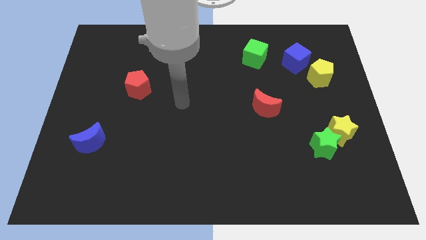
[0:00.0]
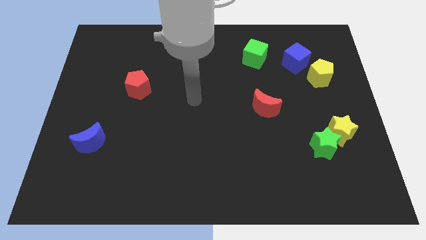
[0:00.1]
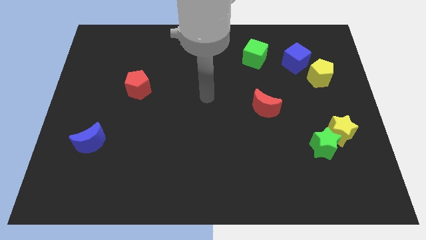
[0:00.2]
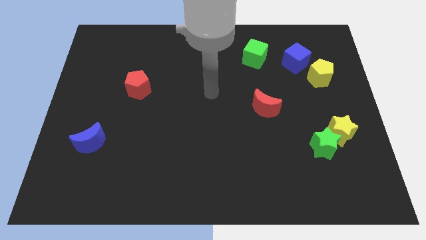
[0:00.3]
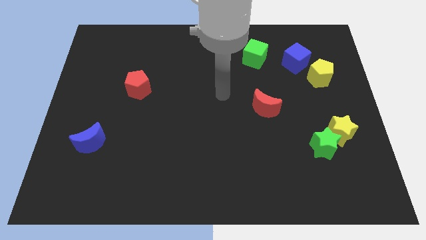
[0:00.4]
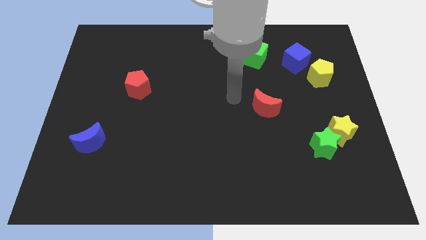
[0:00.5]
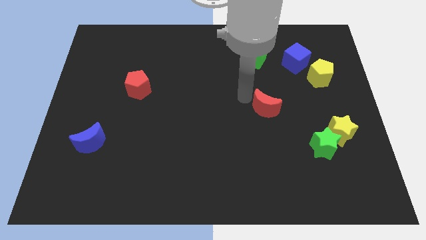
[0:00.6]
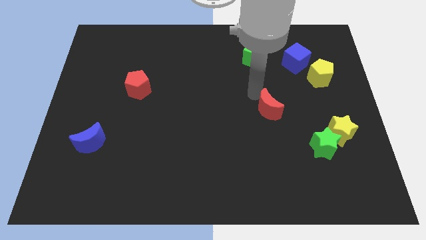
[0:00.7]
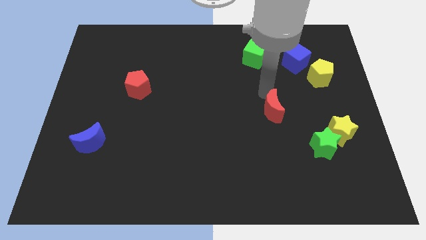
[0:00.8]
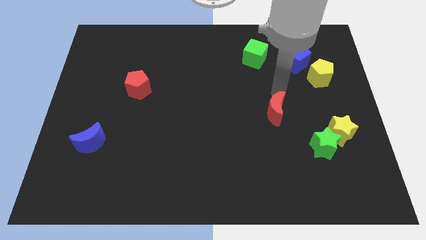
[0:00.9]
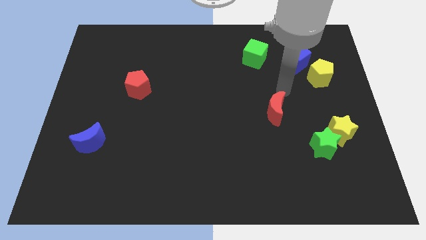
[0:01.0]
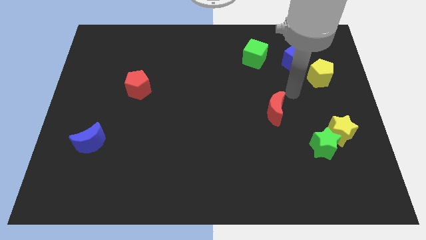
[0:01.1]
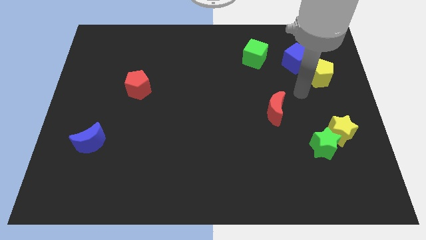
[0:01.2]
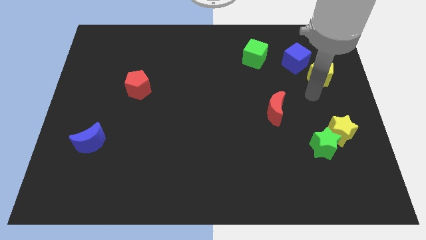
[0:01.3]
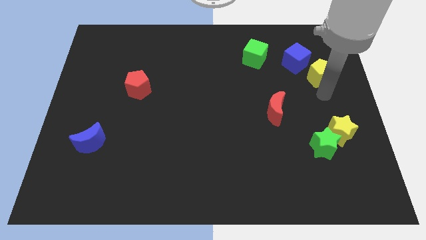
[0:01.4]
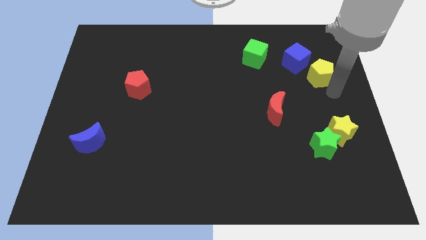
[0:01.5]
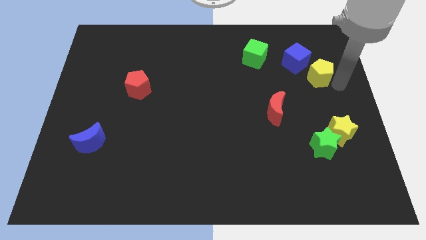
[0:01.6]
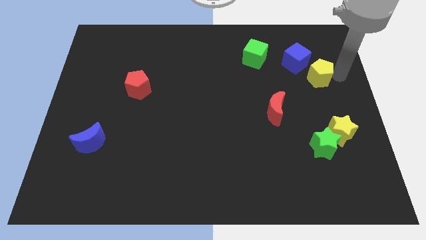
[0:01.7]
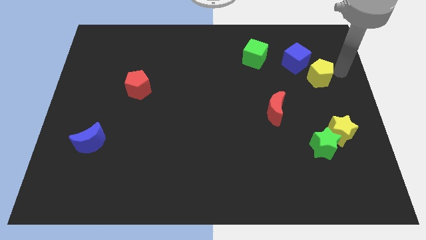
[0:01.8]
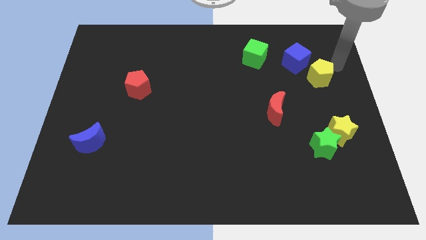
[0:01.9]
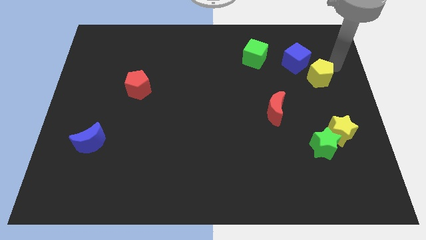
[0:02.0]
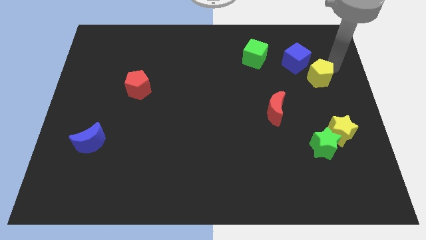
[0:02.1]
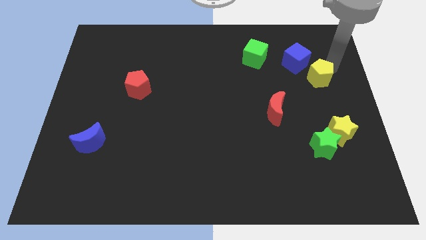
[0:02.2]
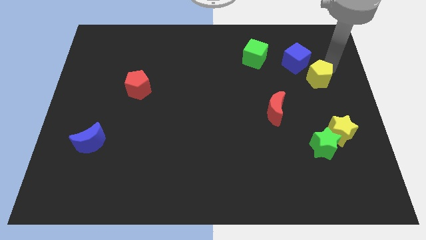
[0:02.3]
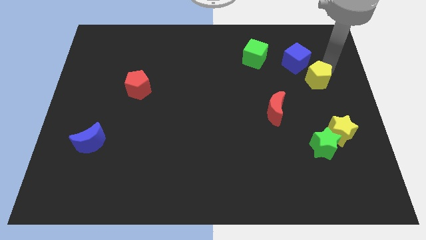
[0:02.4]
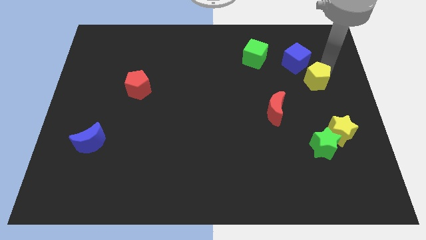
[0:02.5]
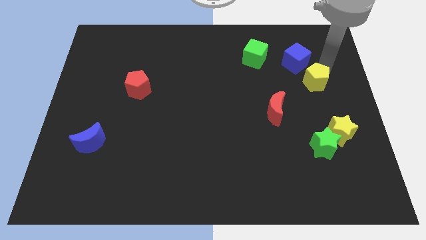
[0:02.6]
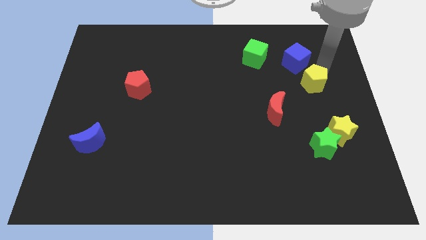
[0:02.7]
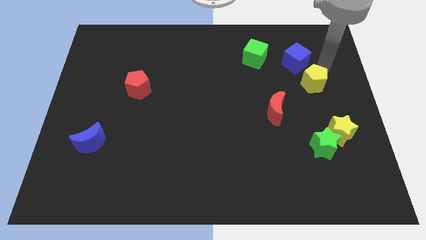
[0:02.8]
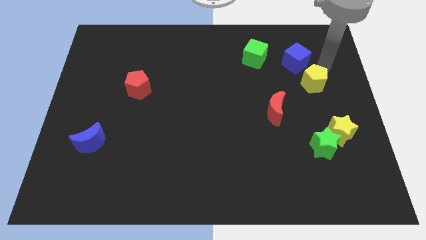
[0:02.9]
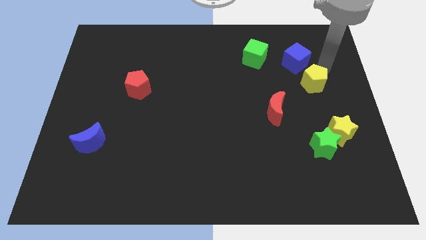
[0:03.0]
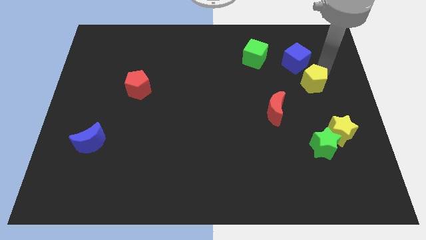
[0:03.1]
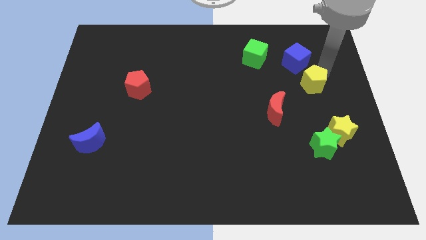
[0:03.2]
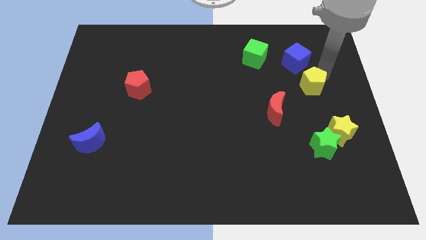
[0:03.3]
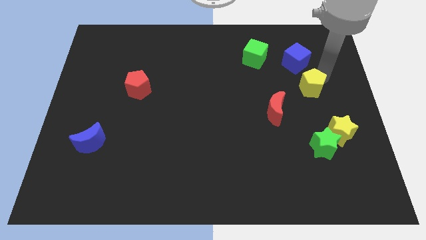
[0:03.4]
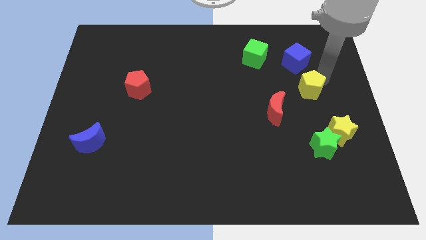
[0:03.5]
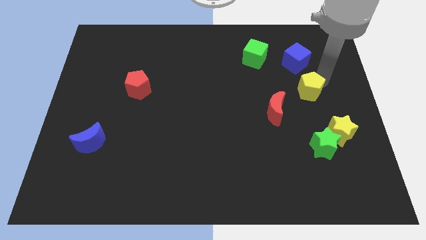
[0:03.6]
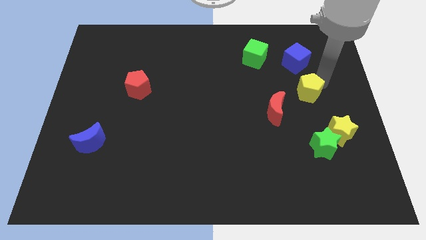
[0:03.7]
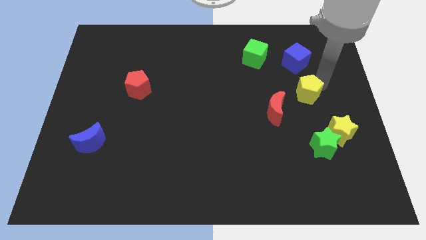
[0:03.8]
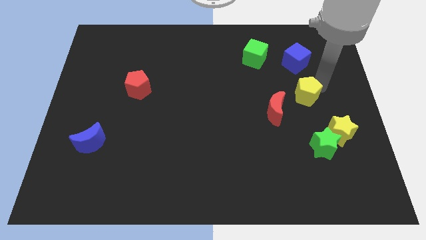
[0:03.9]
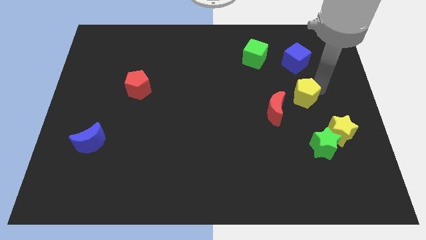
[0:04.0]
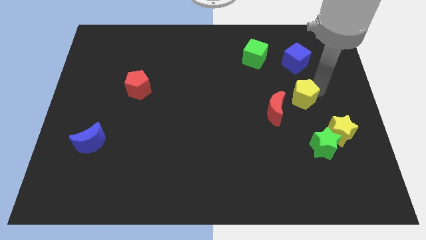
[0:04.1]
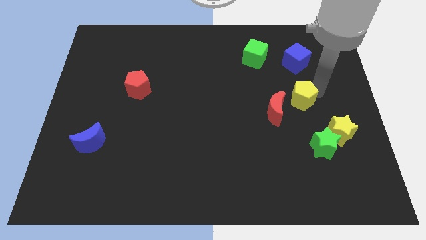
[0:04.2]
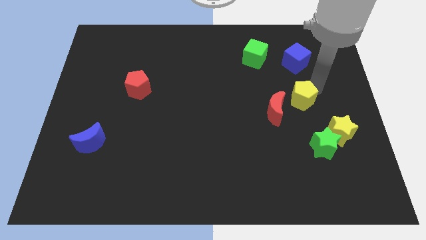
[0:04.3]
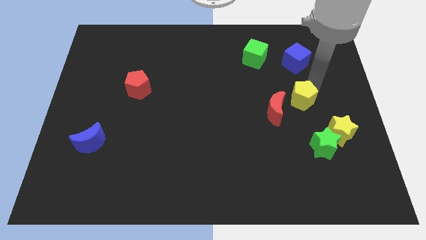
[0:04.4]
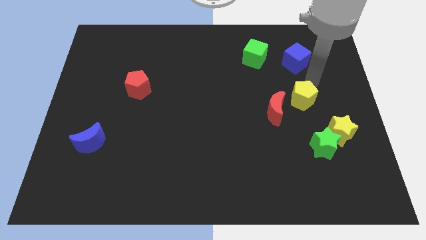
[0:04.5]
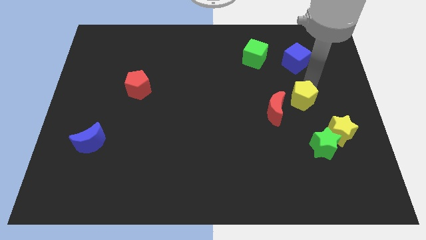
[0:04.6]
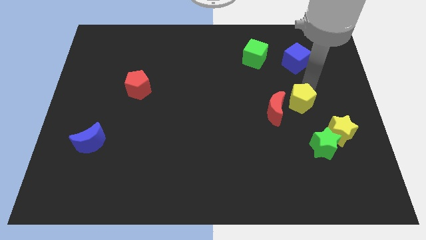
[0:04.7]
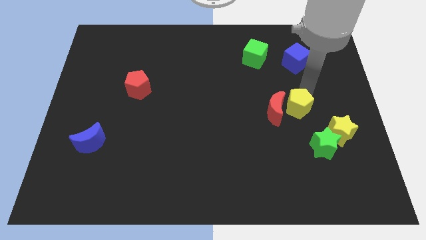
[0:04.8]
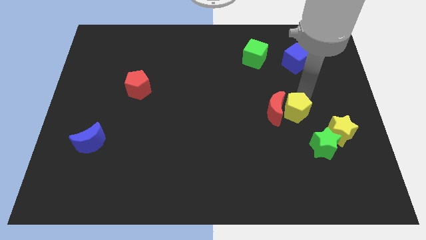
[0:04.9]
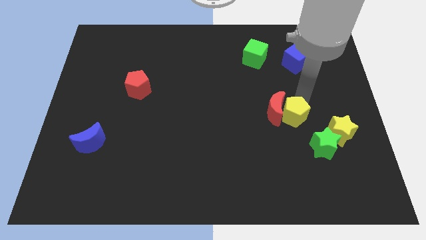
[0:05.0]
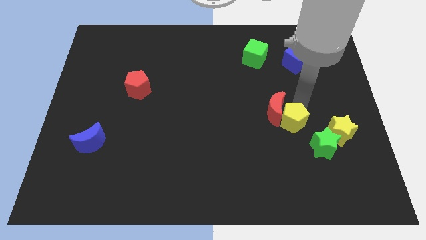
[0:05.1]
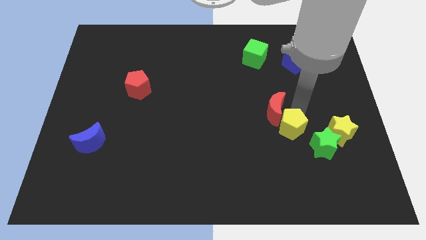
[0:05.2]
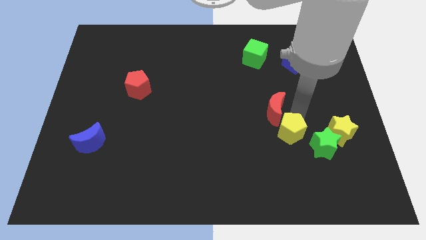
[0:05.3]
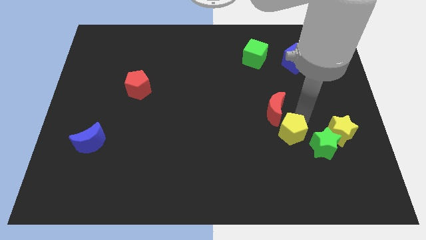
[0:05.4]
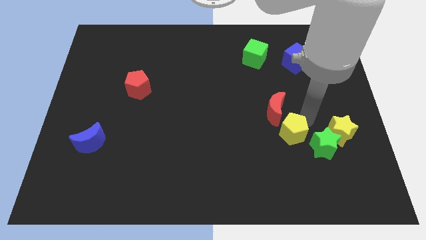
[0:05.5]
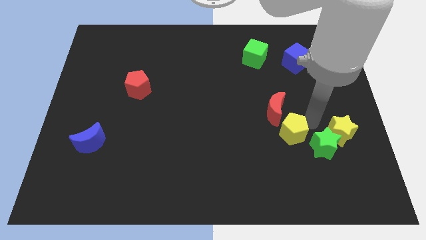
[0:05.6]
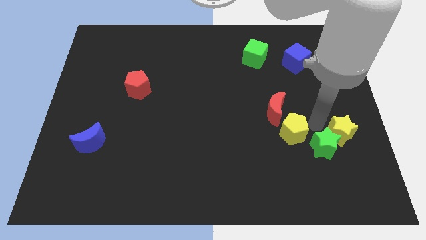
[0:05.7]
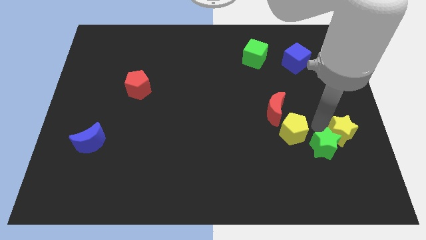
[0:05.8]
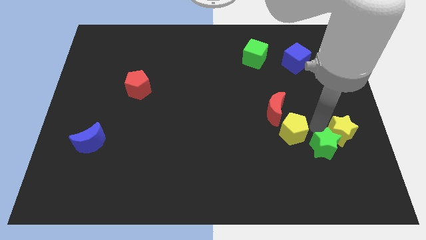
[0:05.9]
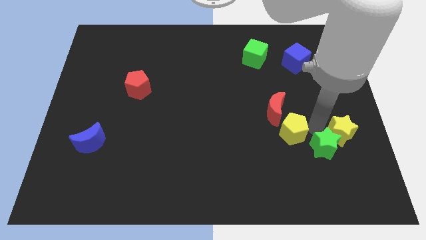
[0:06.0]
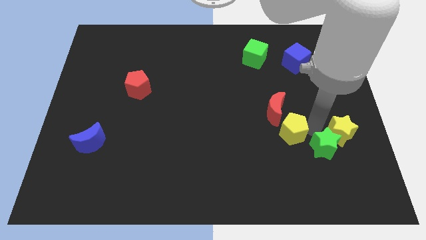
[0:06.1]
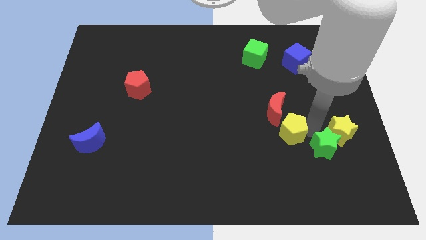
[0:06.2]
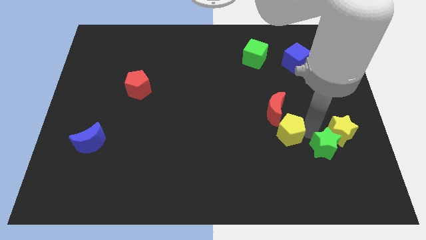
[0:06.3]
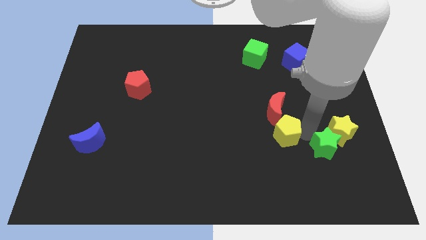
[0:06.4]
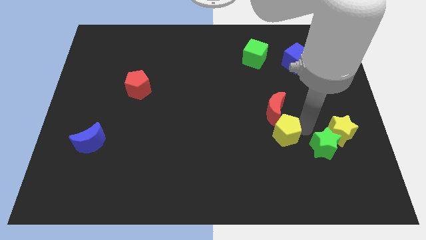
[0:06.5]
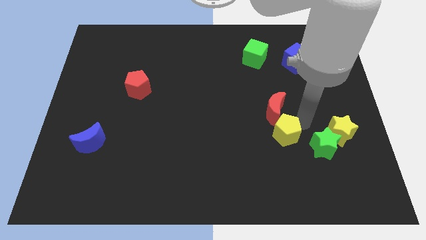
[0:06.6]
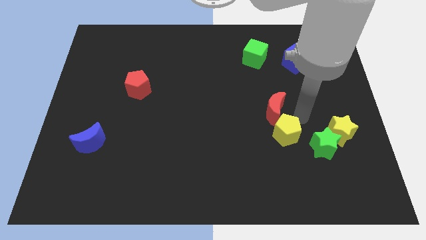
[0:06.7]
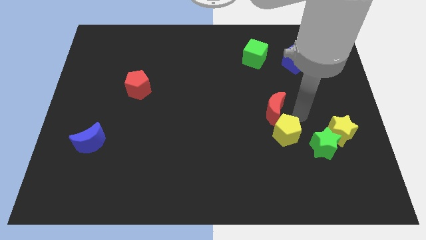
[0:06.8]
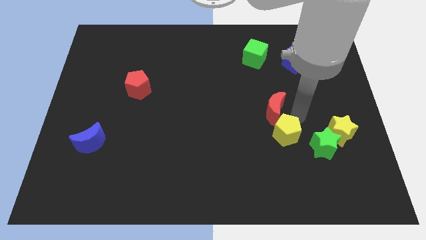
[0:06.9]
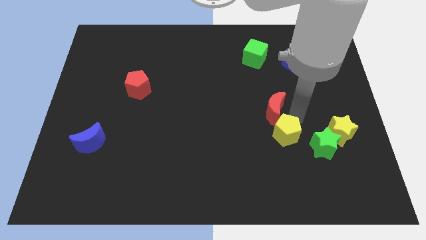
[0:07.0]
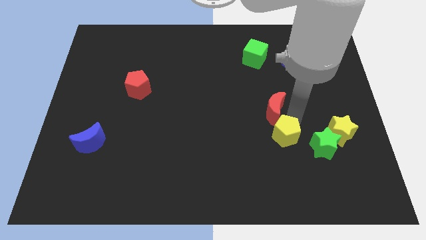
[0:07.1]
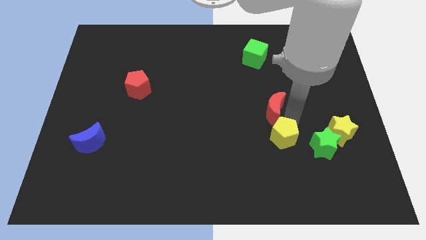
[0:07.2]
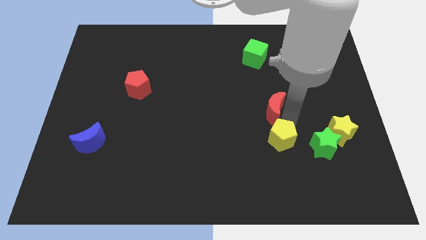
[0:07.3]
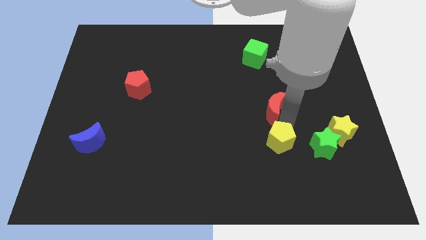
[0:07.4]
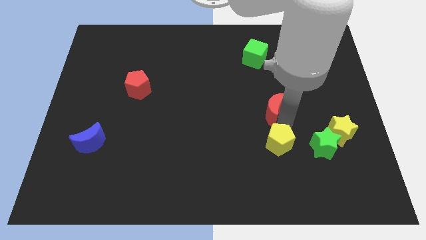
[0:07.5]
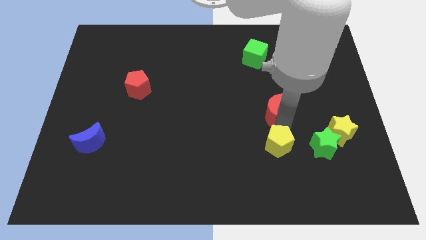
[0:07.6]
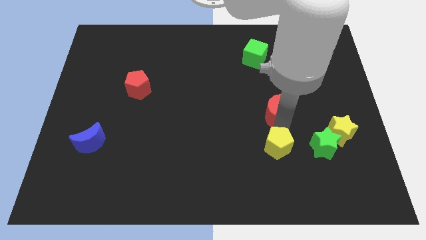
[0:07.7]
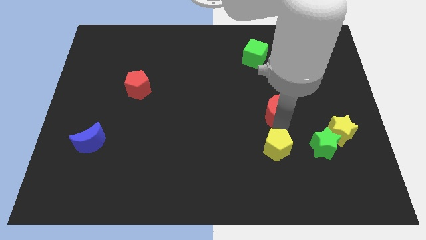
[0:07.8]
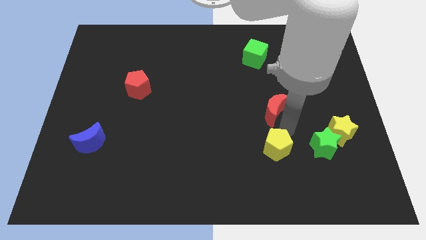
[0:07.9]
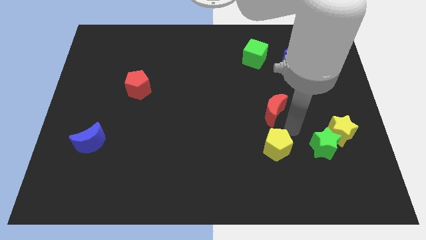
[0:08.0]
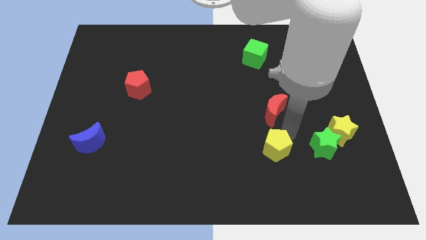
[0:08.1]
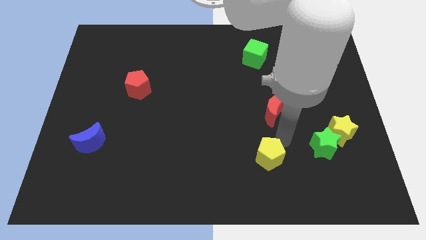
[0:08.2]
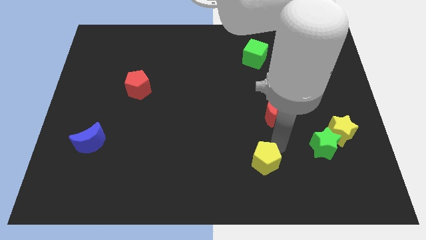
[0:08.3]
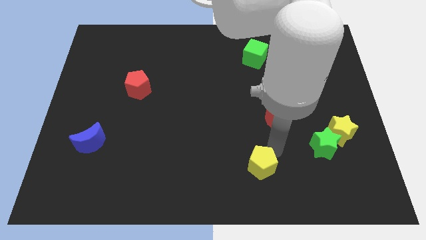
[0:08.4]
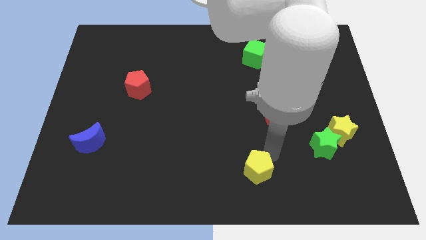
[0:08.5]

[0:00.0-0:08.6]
move the yellow pentagon to the bottom side
